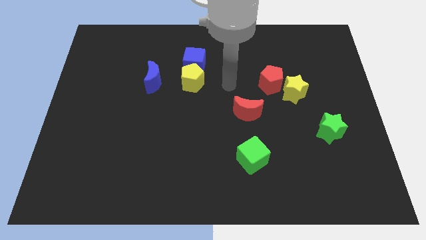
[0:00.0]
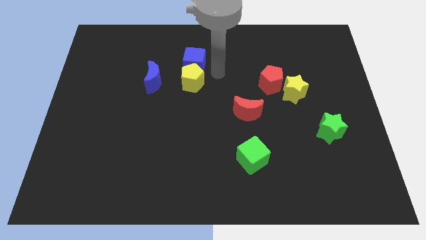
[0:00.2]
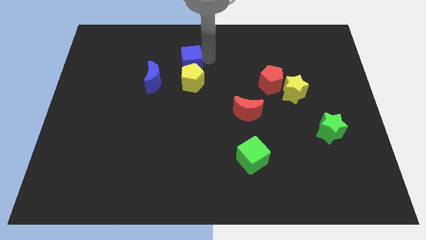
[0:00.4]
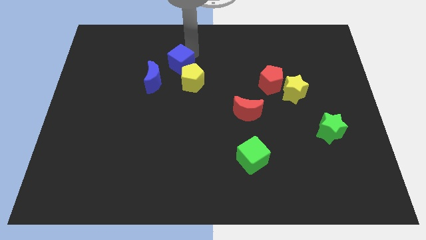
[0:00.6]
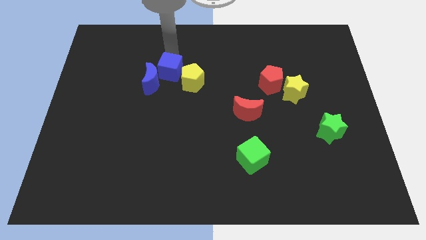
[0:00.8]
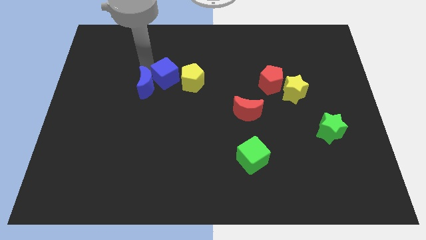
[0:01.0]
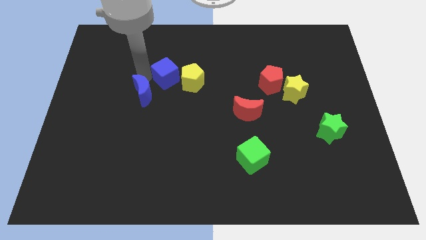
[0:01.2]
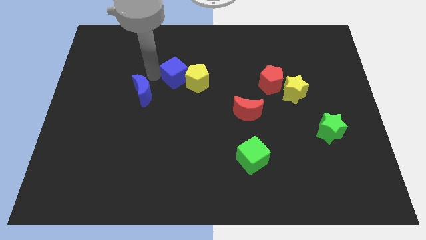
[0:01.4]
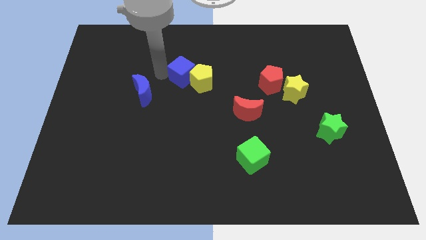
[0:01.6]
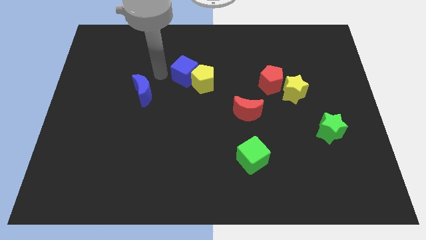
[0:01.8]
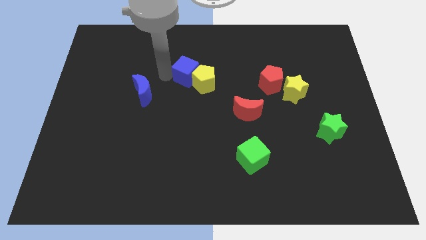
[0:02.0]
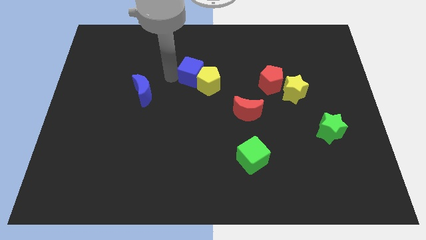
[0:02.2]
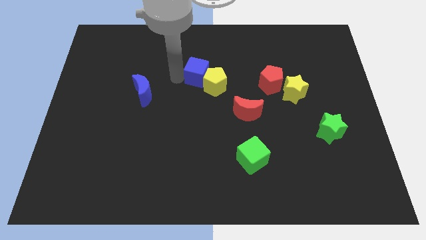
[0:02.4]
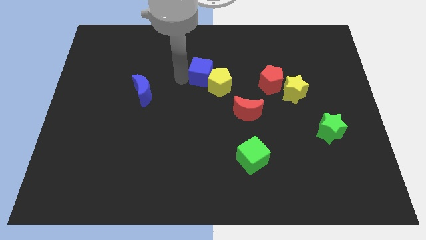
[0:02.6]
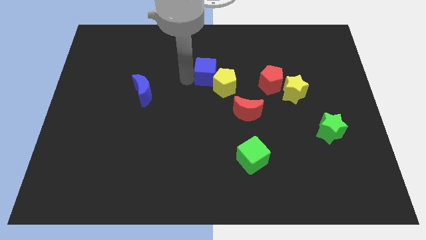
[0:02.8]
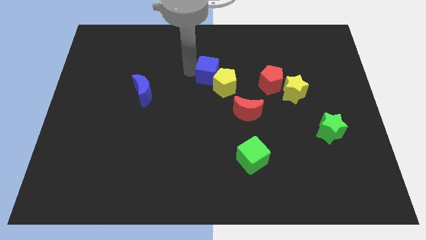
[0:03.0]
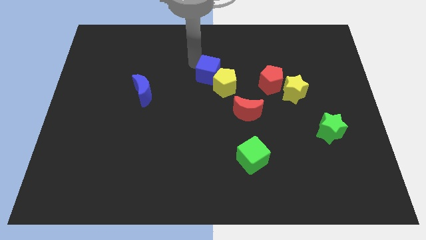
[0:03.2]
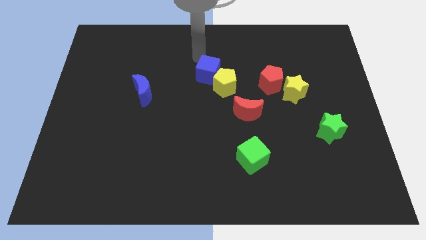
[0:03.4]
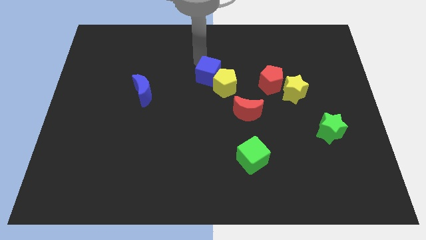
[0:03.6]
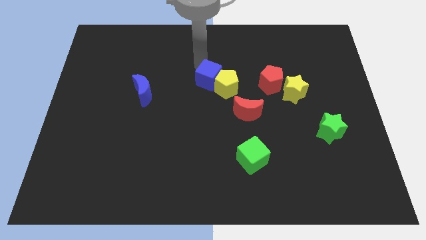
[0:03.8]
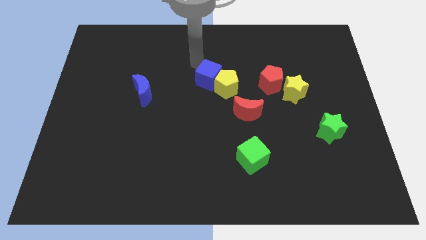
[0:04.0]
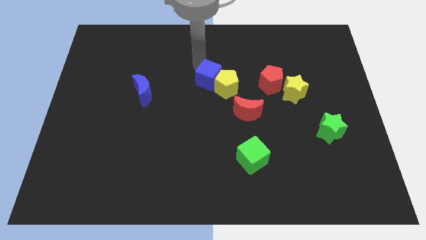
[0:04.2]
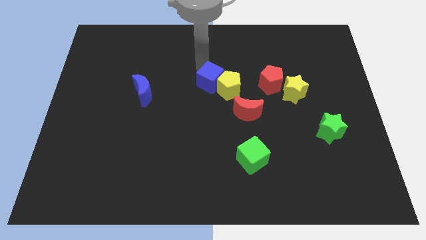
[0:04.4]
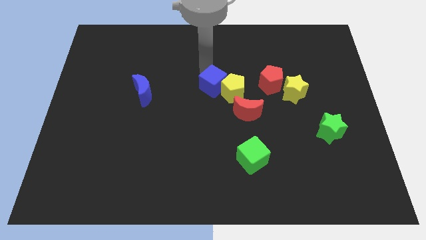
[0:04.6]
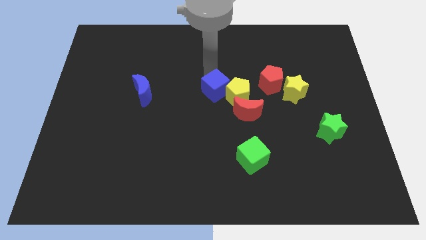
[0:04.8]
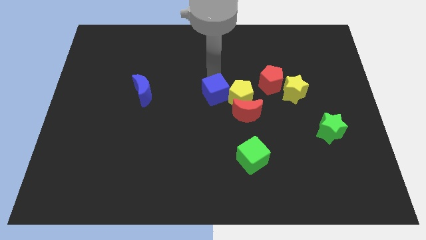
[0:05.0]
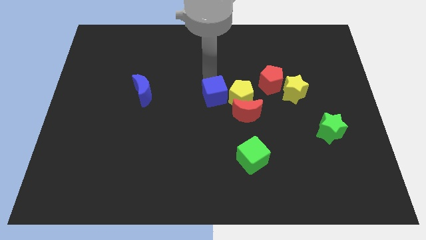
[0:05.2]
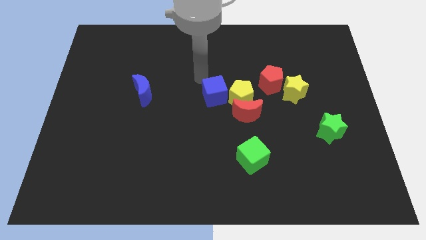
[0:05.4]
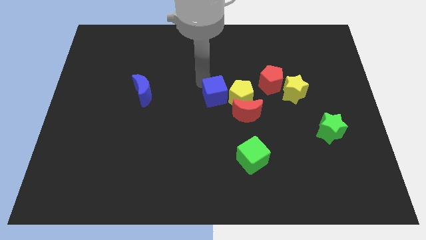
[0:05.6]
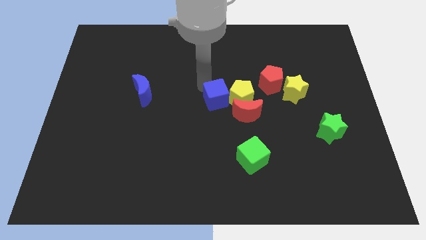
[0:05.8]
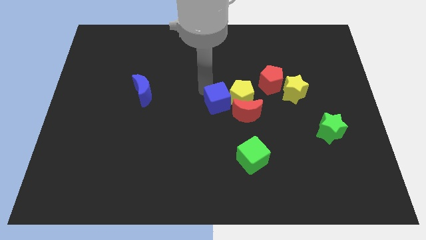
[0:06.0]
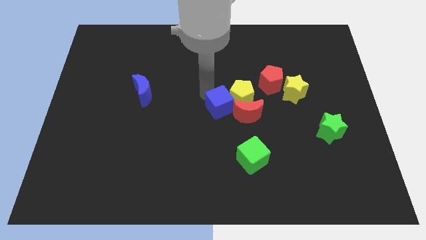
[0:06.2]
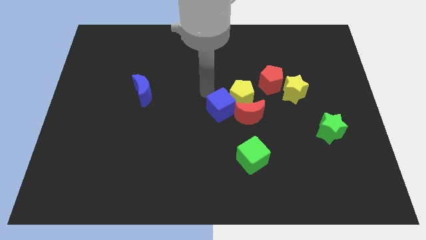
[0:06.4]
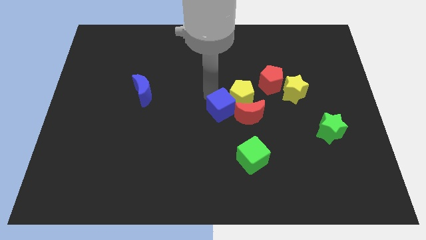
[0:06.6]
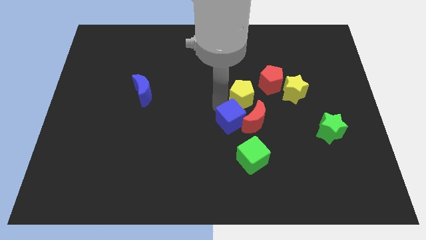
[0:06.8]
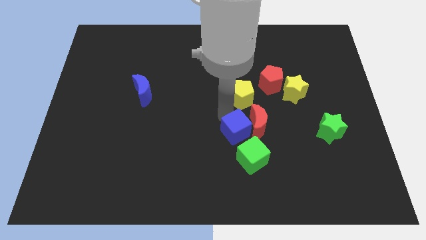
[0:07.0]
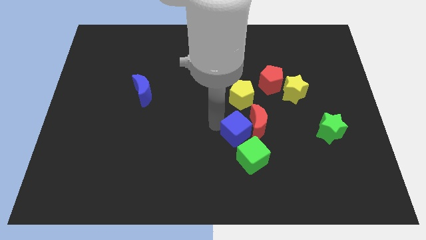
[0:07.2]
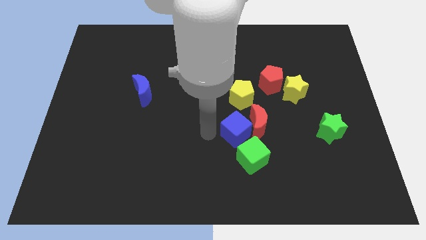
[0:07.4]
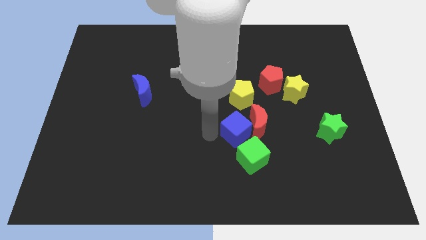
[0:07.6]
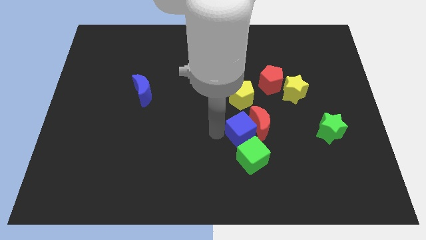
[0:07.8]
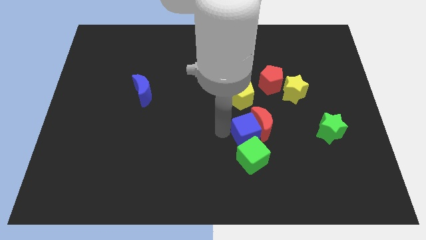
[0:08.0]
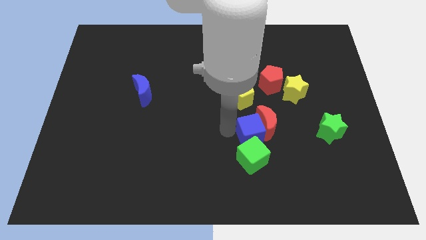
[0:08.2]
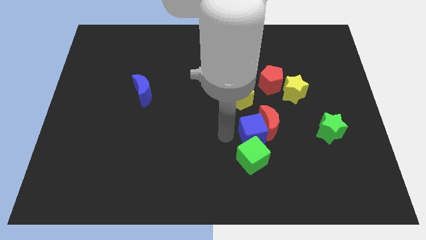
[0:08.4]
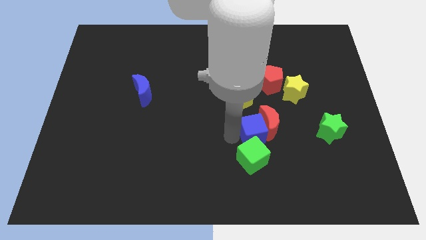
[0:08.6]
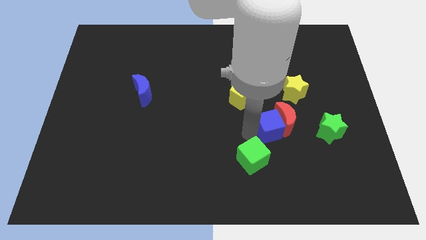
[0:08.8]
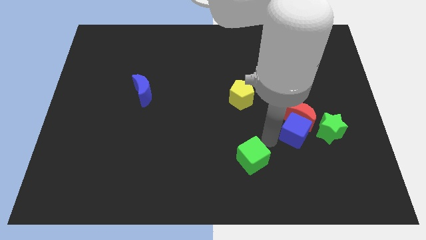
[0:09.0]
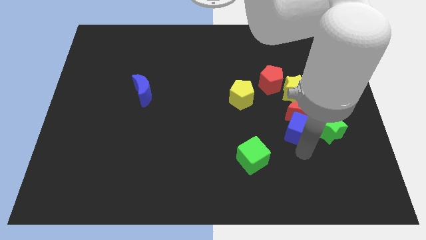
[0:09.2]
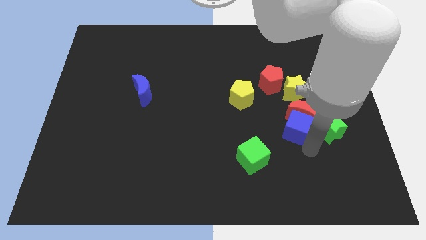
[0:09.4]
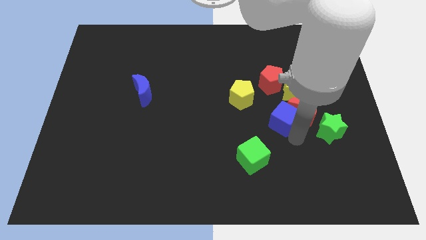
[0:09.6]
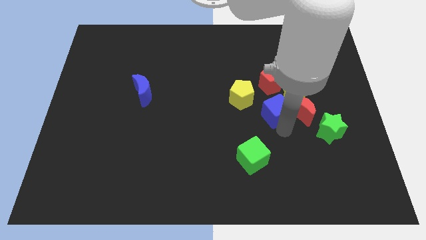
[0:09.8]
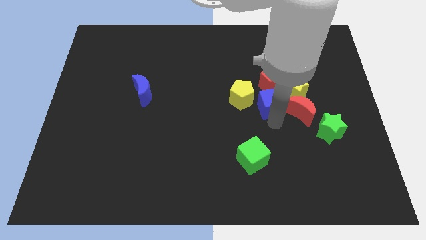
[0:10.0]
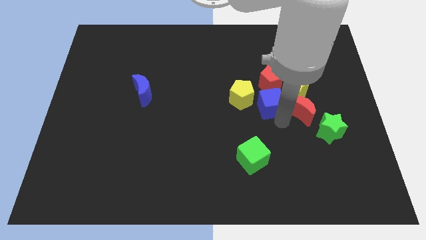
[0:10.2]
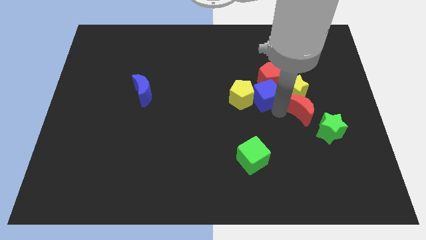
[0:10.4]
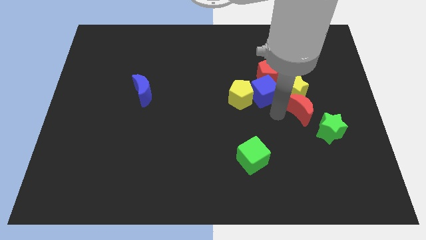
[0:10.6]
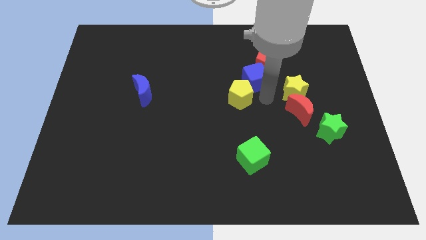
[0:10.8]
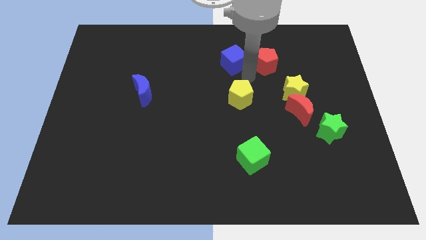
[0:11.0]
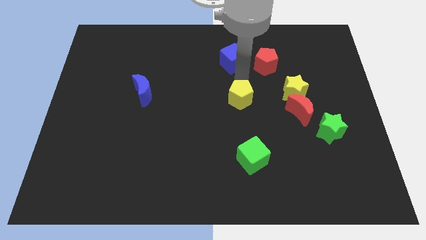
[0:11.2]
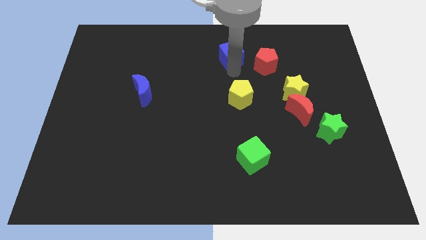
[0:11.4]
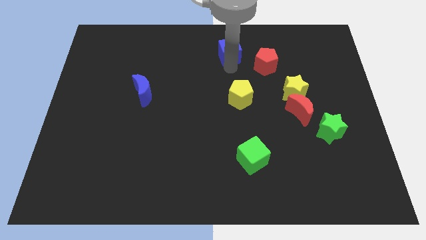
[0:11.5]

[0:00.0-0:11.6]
put the blue cube to the towards your base

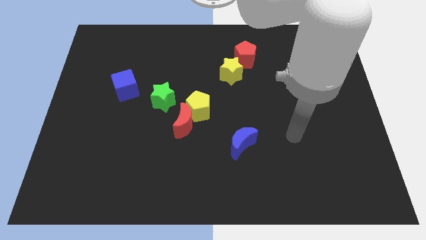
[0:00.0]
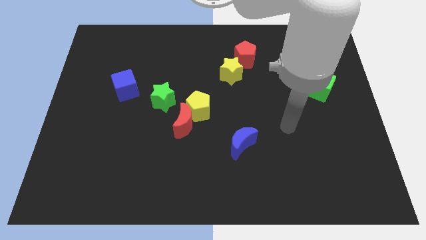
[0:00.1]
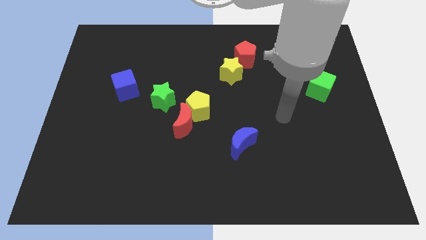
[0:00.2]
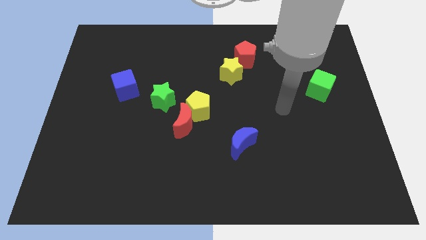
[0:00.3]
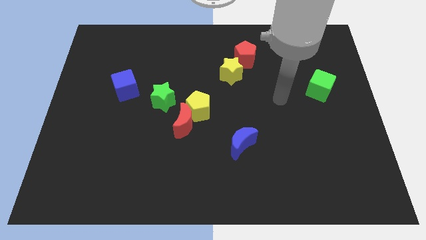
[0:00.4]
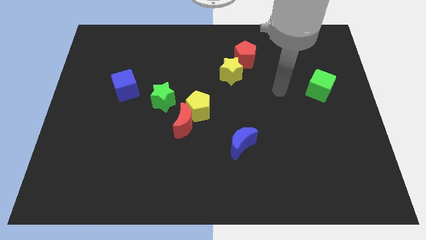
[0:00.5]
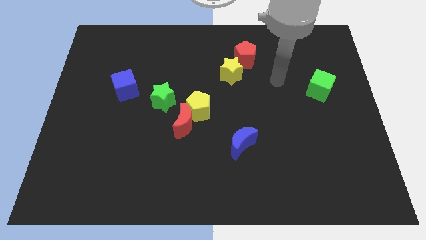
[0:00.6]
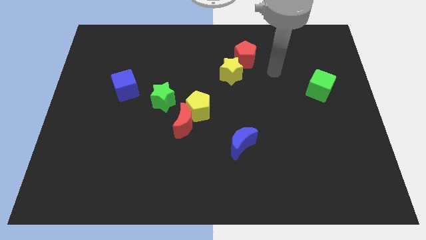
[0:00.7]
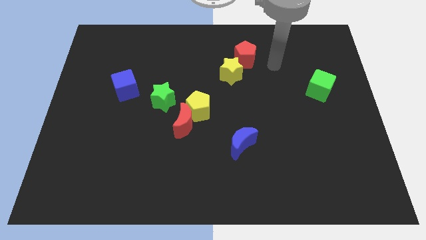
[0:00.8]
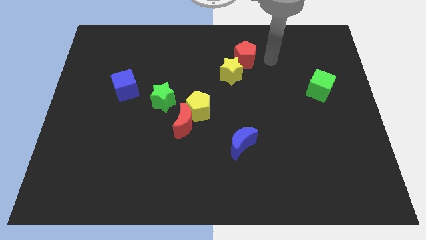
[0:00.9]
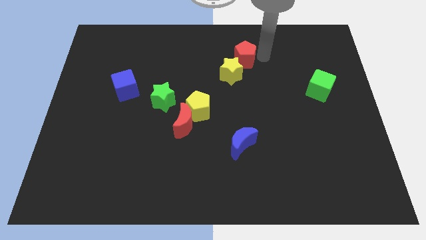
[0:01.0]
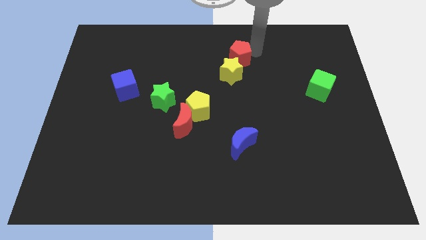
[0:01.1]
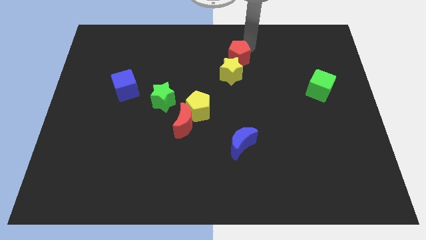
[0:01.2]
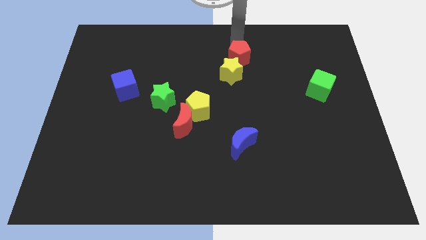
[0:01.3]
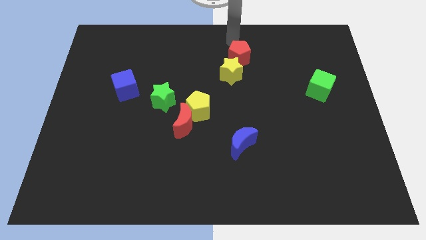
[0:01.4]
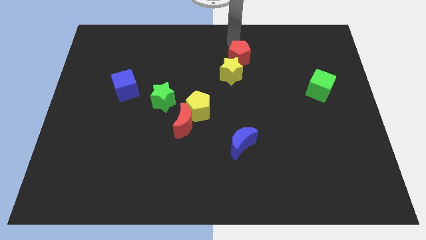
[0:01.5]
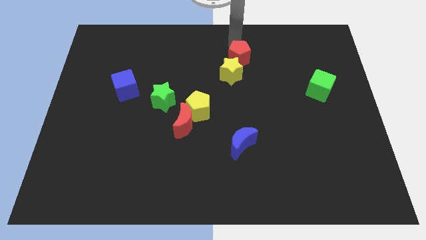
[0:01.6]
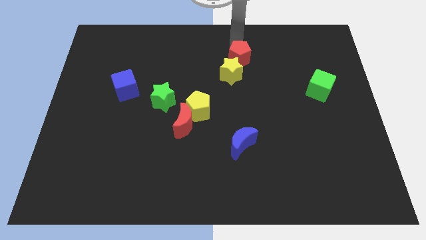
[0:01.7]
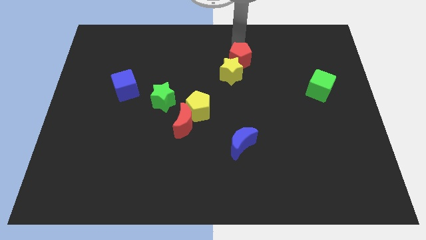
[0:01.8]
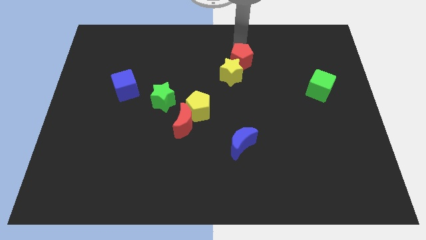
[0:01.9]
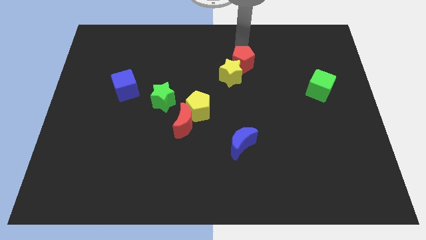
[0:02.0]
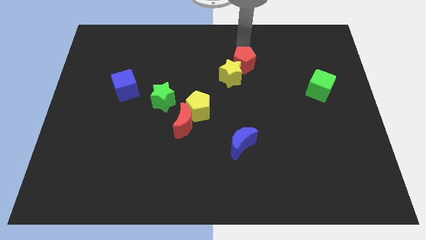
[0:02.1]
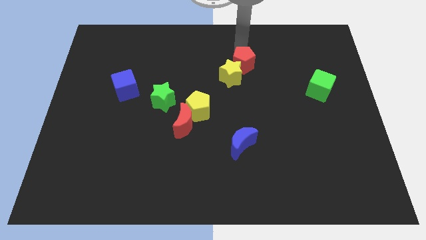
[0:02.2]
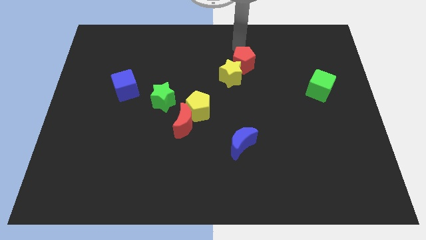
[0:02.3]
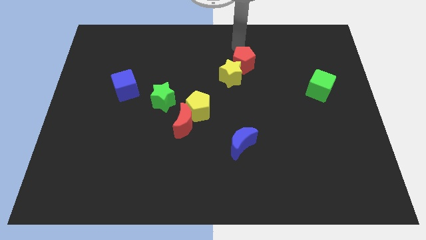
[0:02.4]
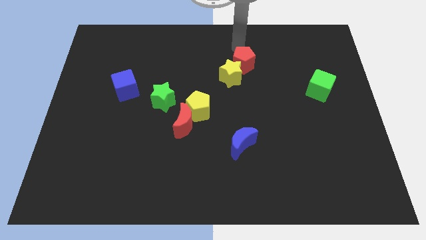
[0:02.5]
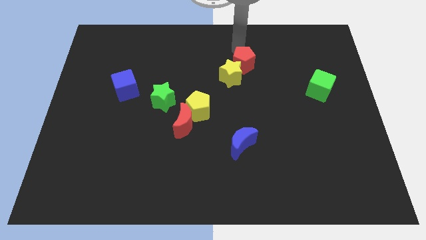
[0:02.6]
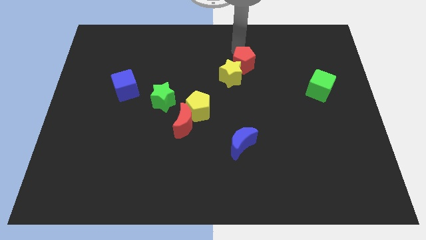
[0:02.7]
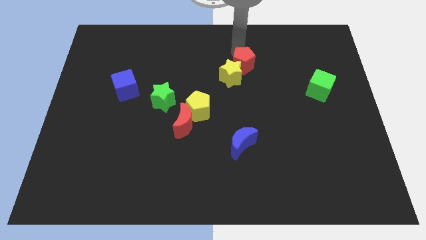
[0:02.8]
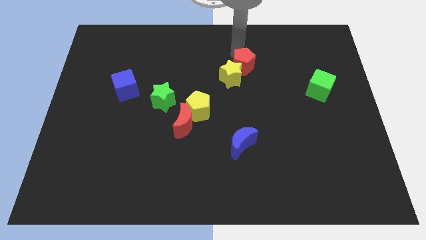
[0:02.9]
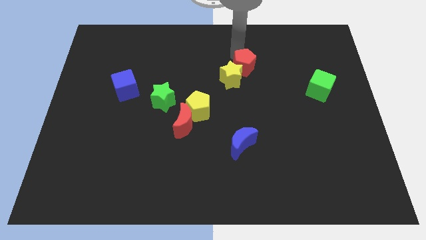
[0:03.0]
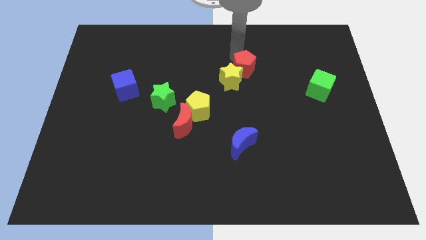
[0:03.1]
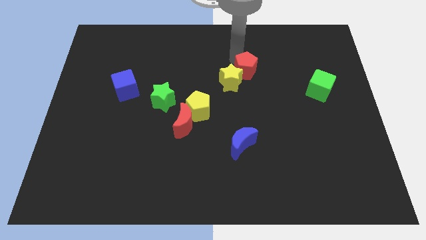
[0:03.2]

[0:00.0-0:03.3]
put the red pentagon to the center
